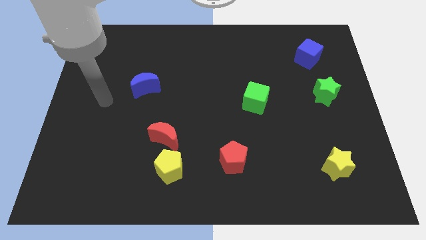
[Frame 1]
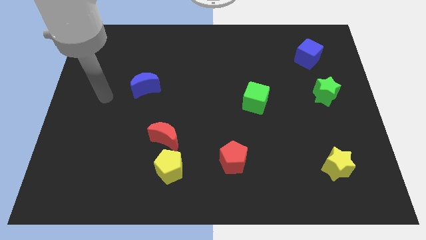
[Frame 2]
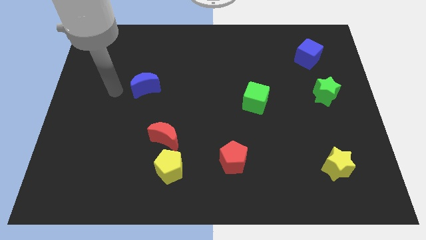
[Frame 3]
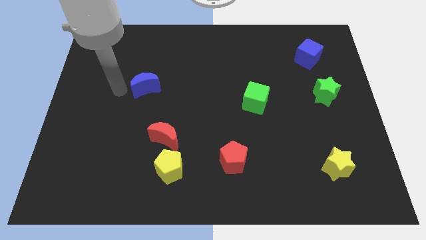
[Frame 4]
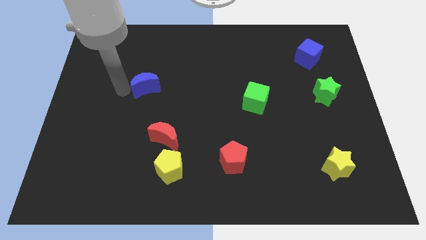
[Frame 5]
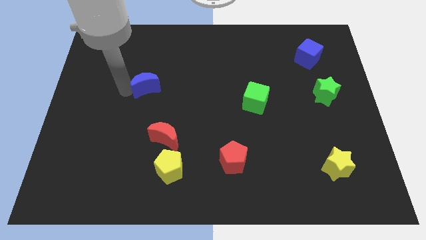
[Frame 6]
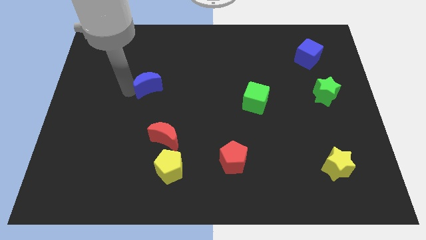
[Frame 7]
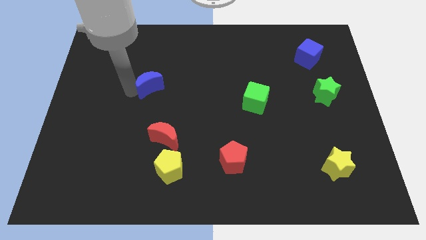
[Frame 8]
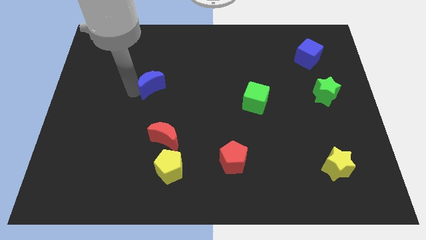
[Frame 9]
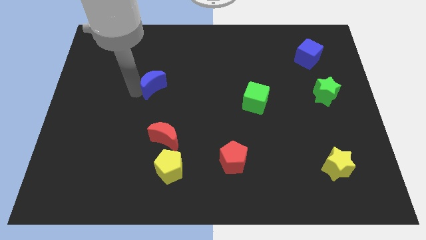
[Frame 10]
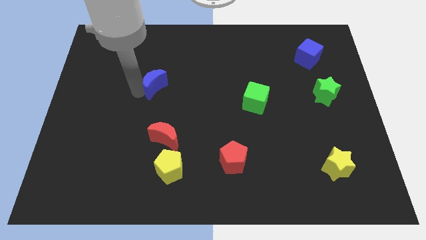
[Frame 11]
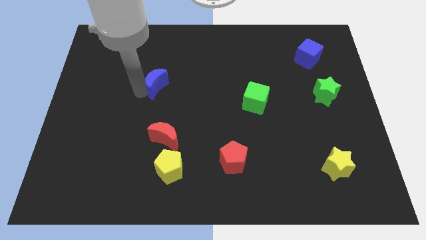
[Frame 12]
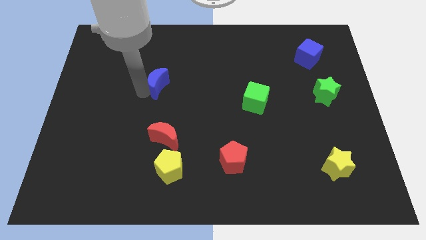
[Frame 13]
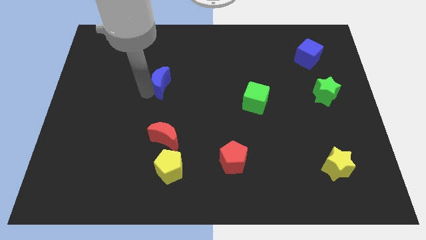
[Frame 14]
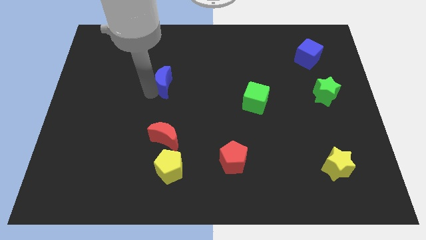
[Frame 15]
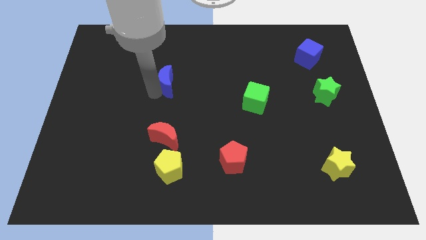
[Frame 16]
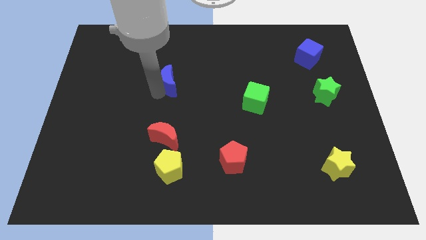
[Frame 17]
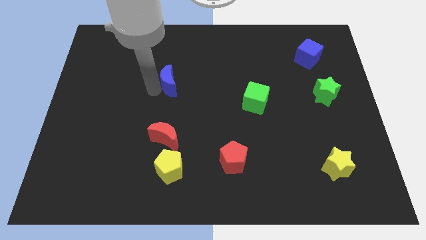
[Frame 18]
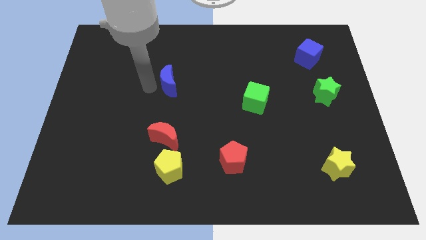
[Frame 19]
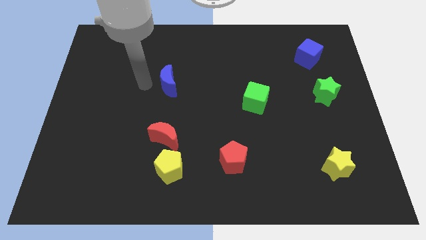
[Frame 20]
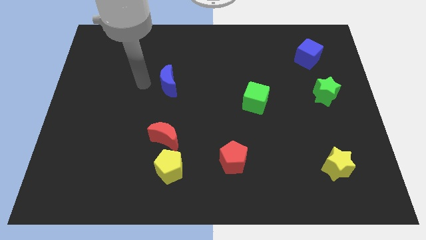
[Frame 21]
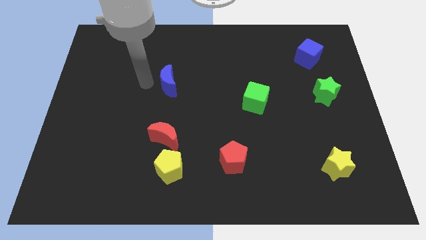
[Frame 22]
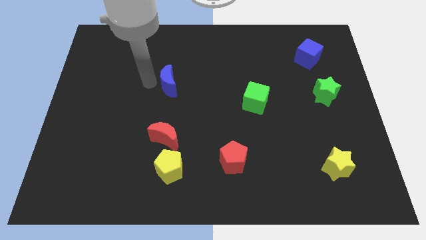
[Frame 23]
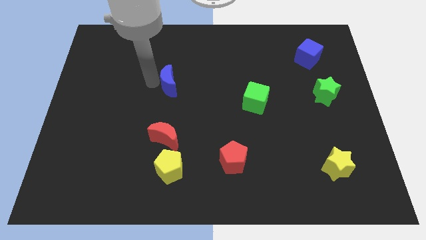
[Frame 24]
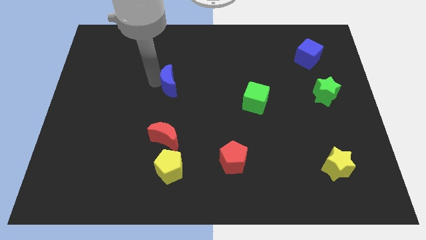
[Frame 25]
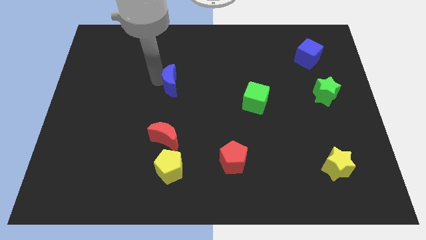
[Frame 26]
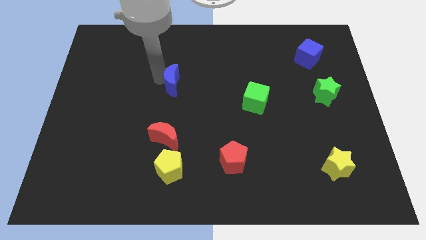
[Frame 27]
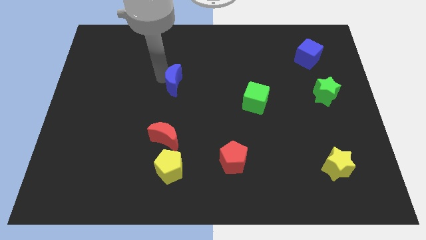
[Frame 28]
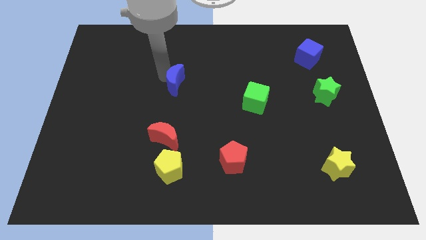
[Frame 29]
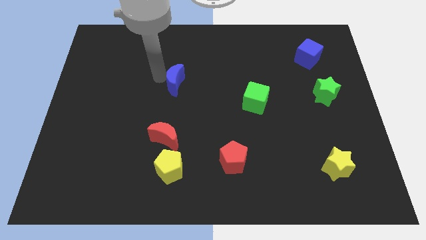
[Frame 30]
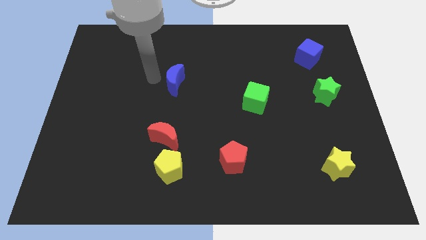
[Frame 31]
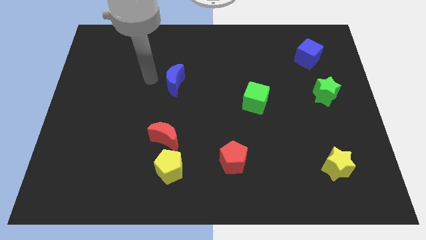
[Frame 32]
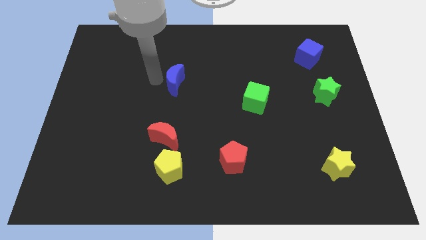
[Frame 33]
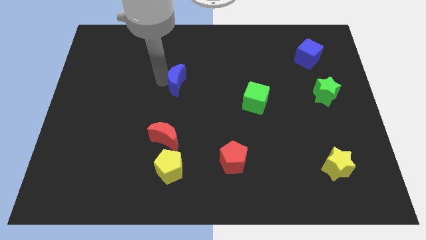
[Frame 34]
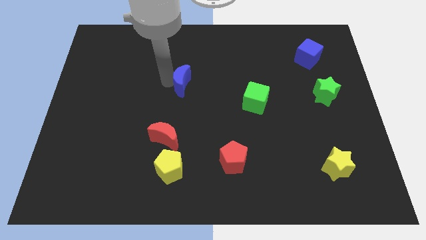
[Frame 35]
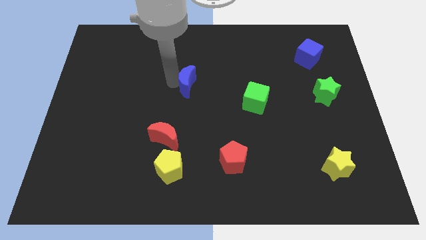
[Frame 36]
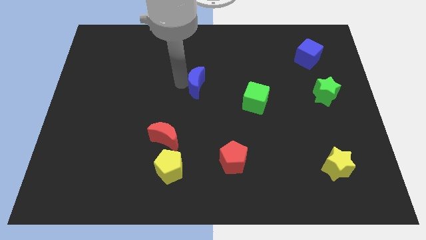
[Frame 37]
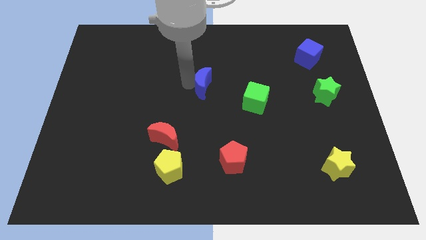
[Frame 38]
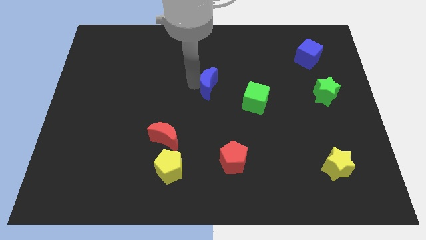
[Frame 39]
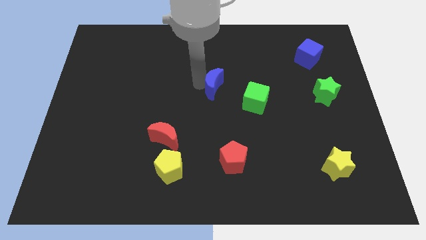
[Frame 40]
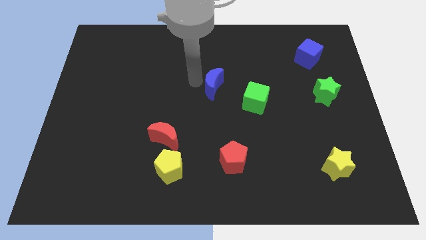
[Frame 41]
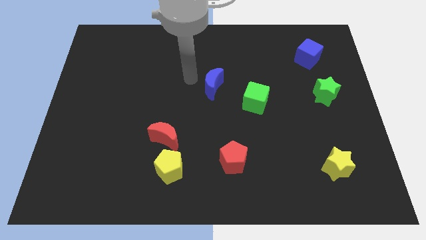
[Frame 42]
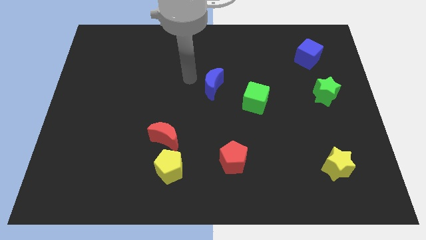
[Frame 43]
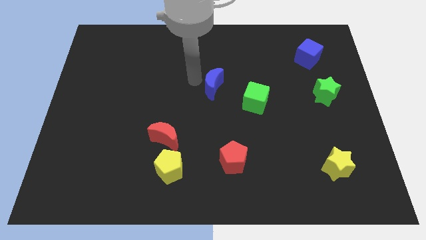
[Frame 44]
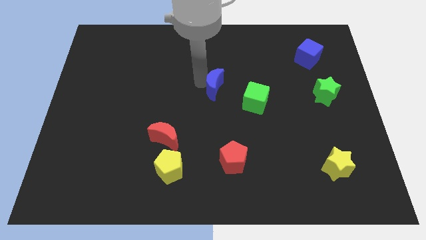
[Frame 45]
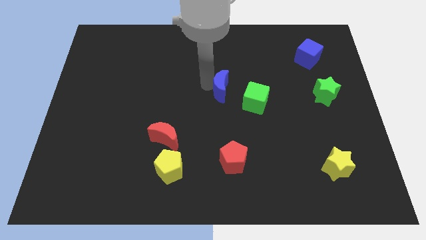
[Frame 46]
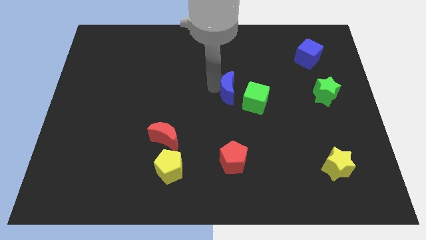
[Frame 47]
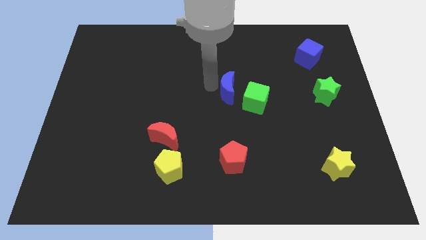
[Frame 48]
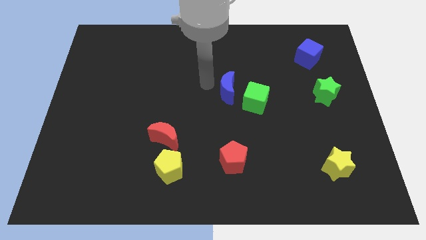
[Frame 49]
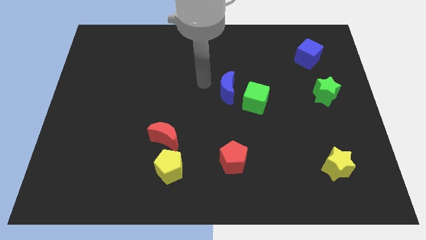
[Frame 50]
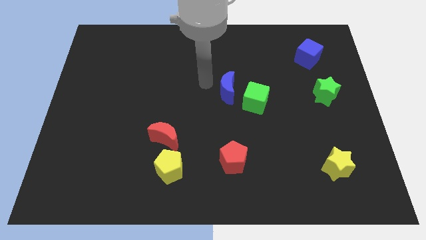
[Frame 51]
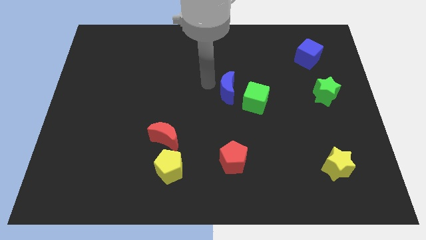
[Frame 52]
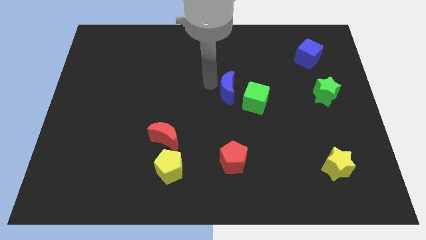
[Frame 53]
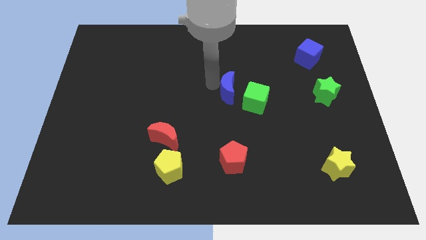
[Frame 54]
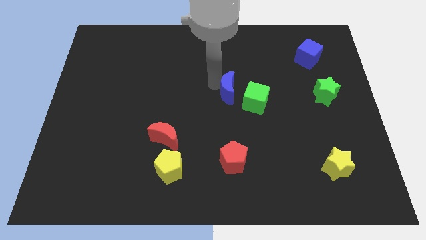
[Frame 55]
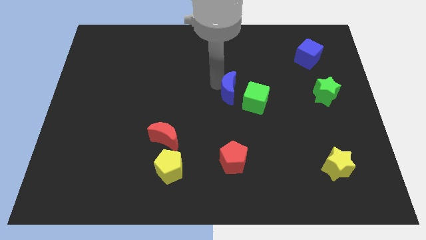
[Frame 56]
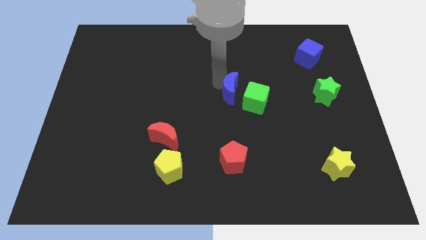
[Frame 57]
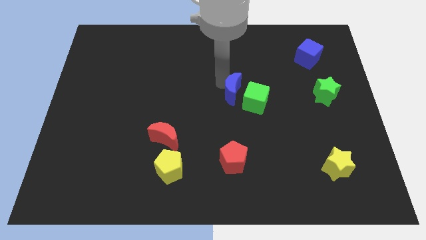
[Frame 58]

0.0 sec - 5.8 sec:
put the blue moon close to the green cube

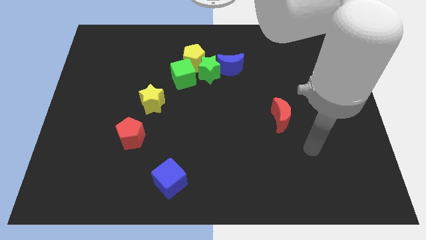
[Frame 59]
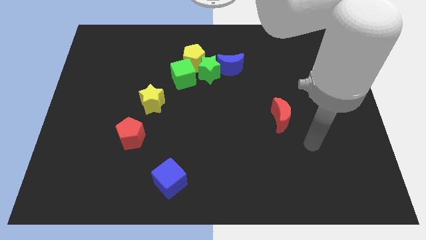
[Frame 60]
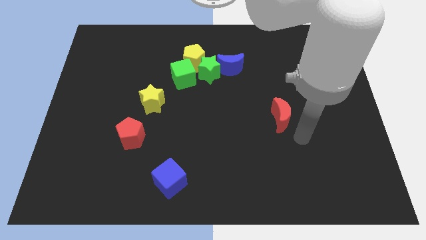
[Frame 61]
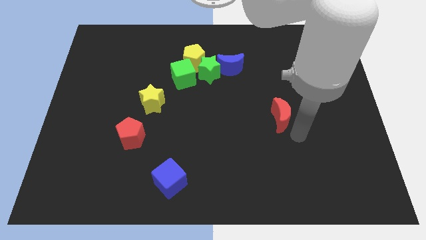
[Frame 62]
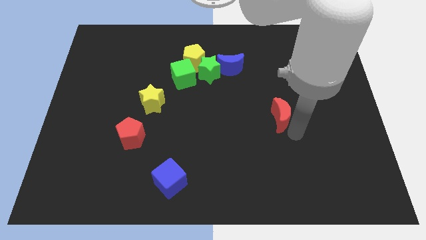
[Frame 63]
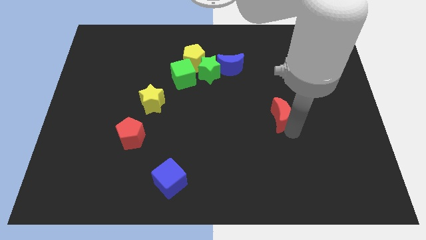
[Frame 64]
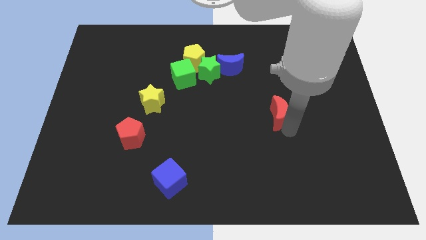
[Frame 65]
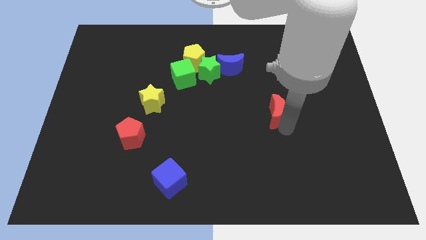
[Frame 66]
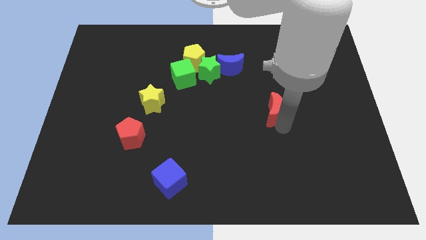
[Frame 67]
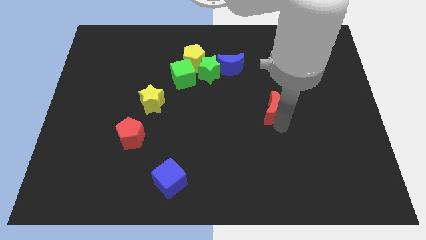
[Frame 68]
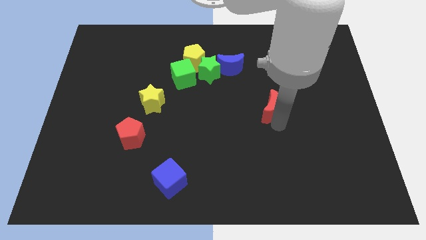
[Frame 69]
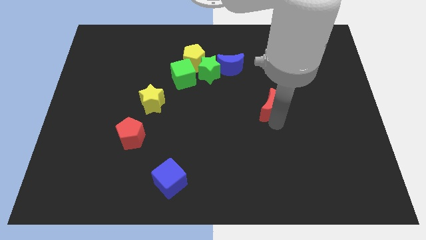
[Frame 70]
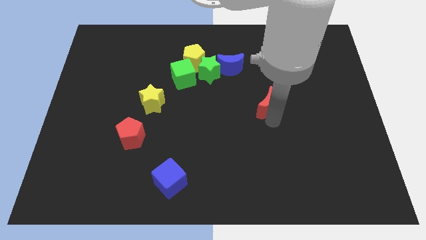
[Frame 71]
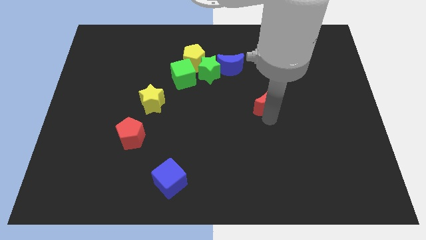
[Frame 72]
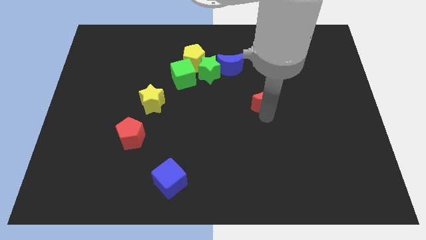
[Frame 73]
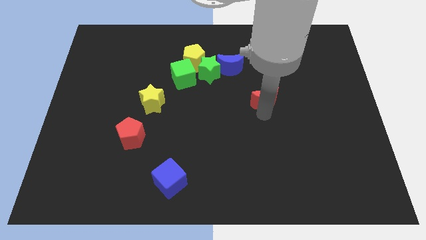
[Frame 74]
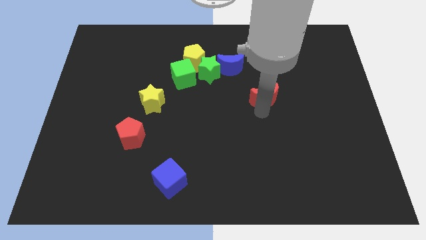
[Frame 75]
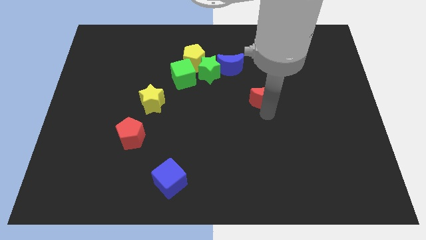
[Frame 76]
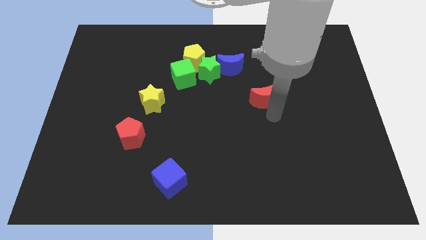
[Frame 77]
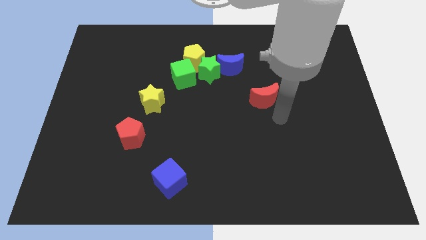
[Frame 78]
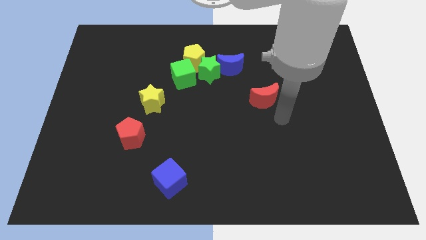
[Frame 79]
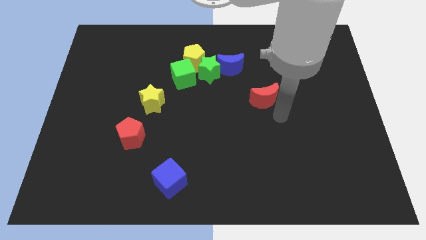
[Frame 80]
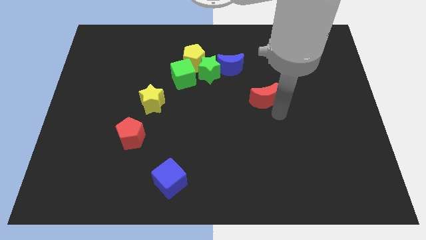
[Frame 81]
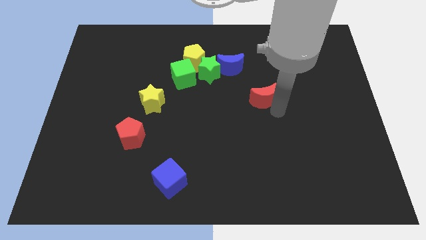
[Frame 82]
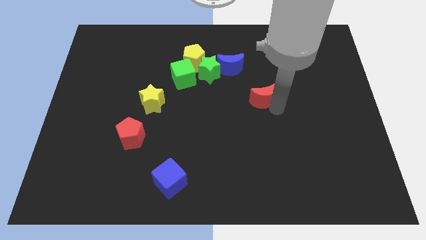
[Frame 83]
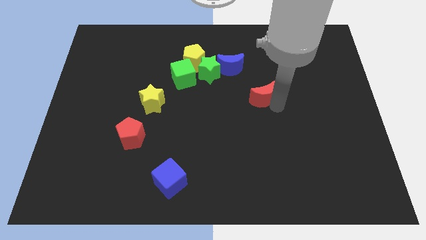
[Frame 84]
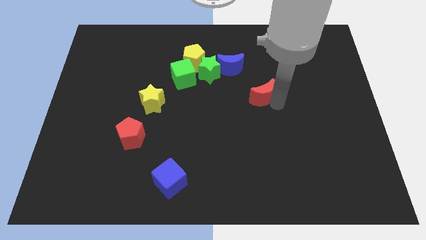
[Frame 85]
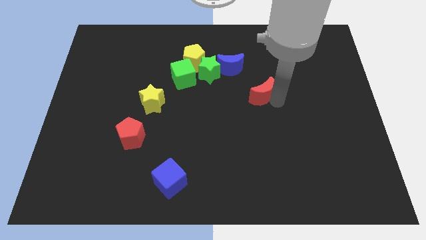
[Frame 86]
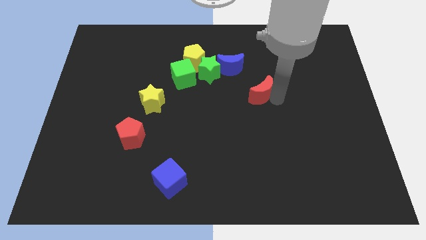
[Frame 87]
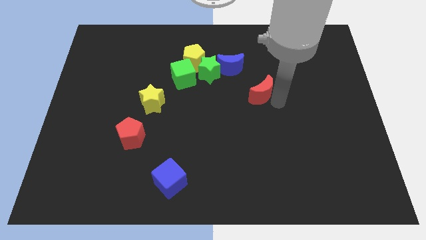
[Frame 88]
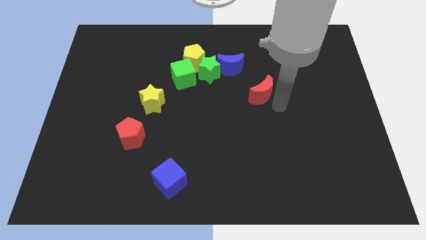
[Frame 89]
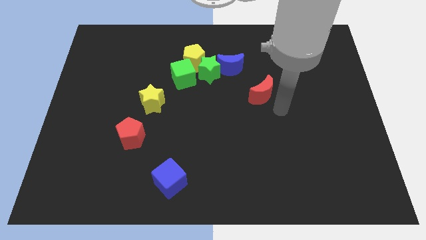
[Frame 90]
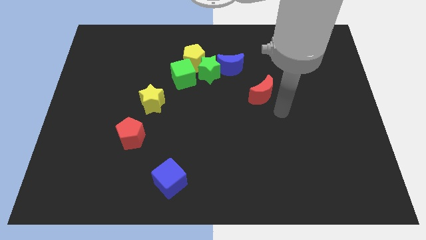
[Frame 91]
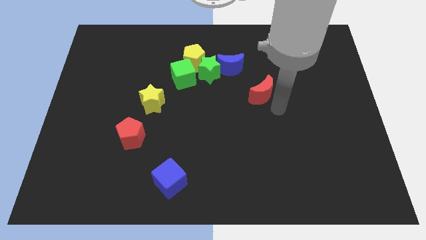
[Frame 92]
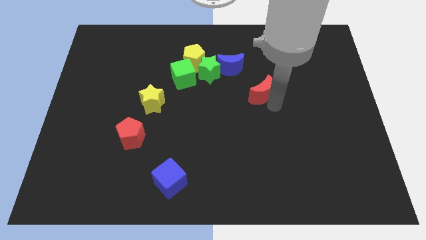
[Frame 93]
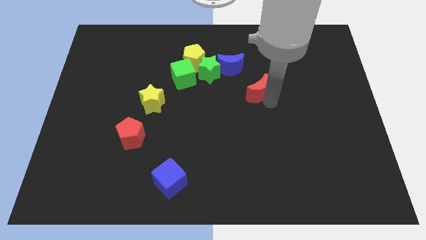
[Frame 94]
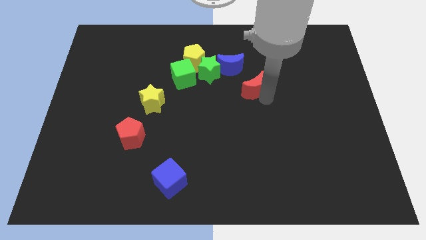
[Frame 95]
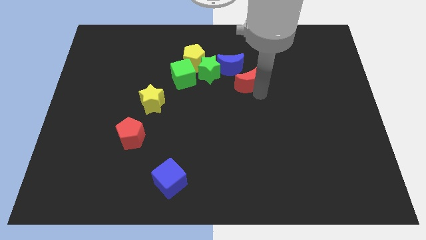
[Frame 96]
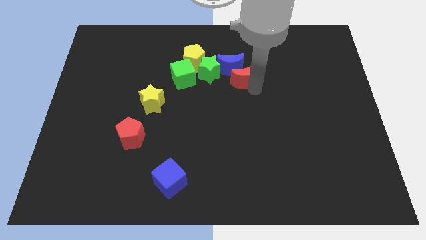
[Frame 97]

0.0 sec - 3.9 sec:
push the red moon towards the blue moon
